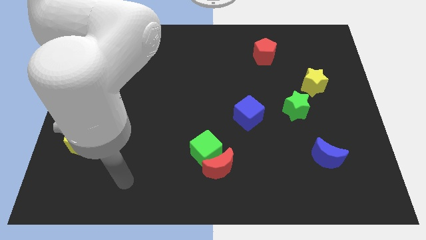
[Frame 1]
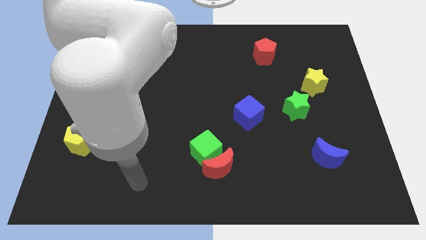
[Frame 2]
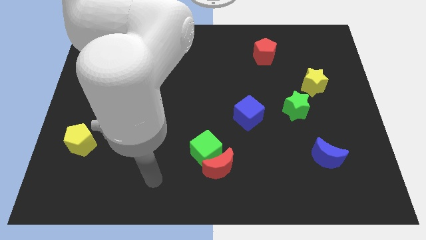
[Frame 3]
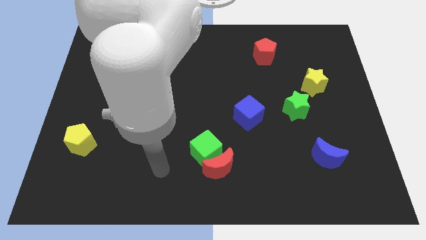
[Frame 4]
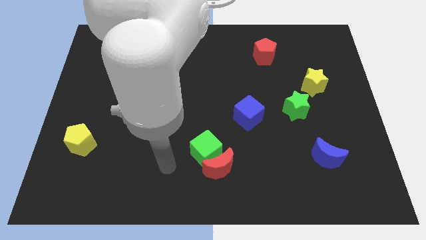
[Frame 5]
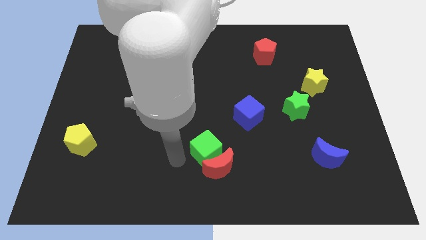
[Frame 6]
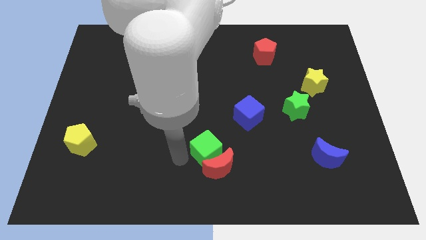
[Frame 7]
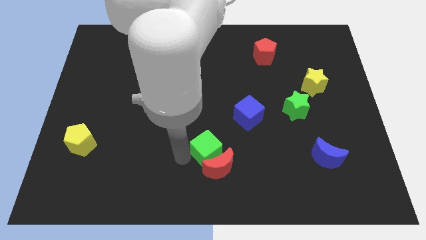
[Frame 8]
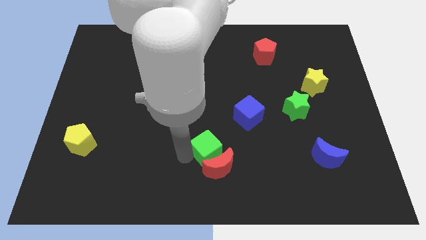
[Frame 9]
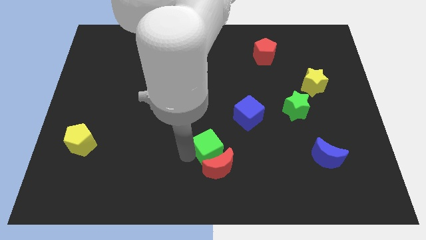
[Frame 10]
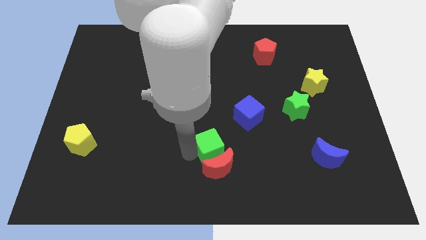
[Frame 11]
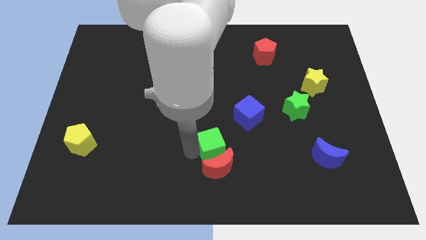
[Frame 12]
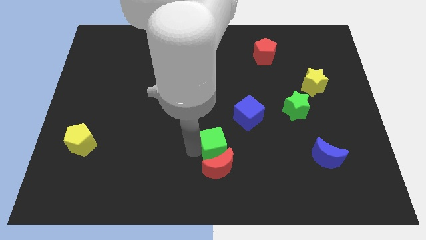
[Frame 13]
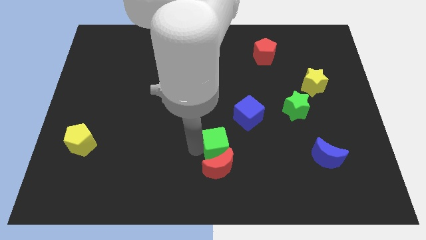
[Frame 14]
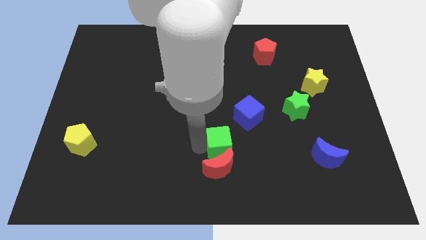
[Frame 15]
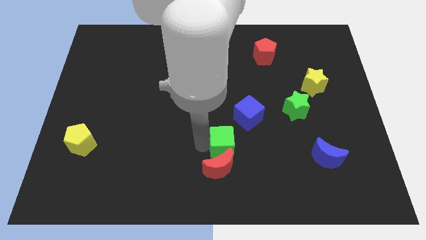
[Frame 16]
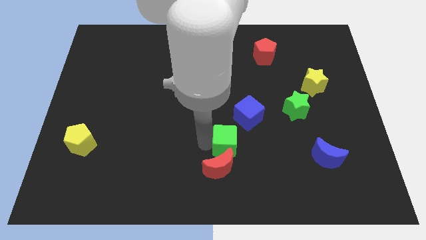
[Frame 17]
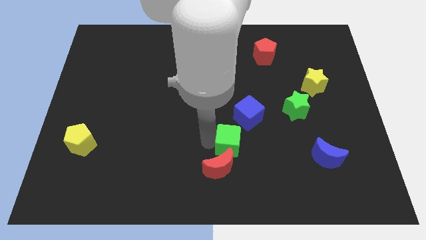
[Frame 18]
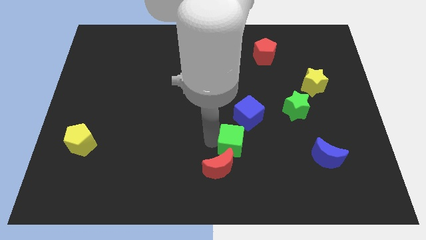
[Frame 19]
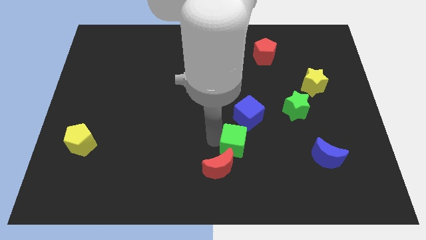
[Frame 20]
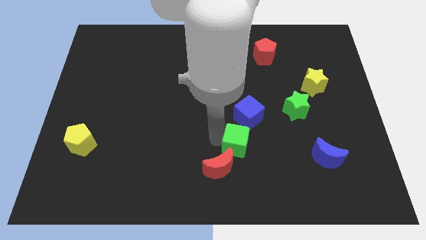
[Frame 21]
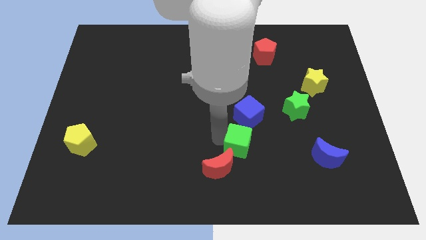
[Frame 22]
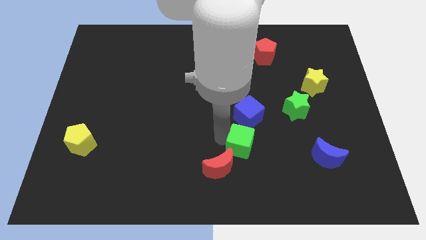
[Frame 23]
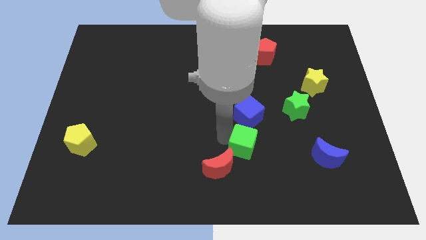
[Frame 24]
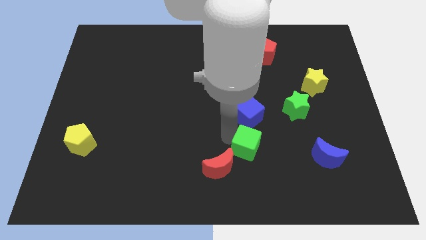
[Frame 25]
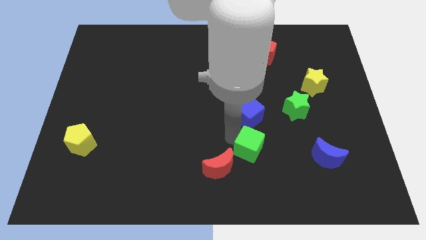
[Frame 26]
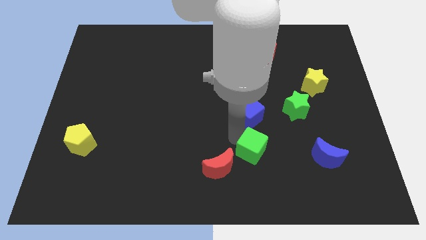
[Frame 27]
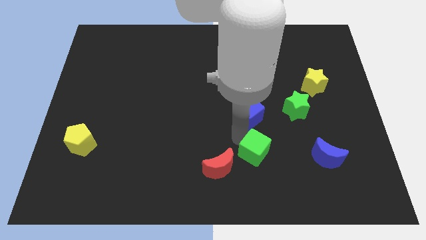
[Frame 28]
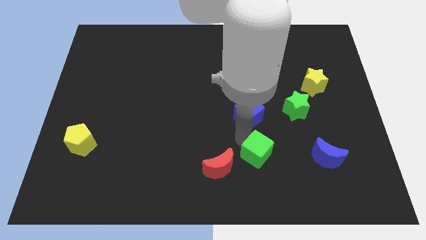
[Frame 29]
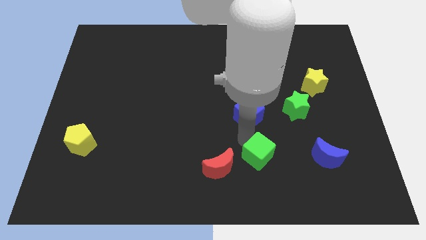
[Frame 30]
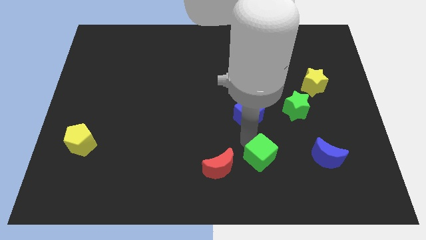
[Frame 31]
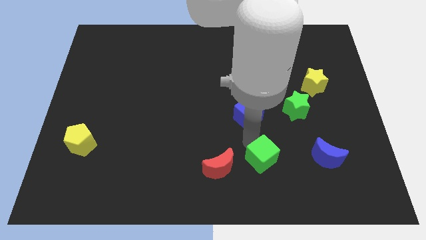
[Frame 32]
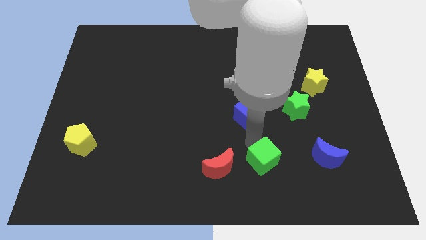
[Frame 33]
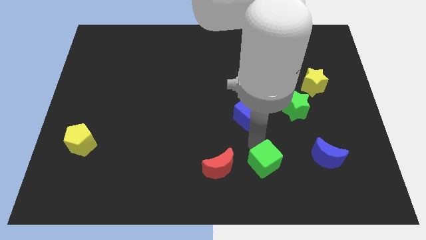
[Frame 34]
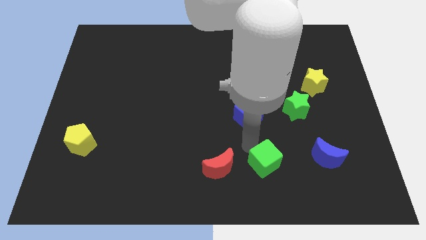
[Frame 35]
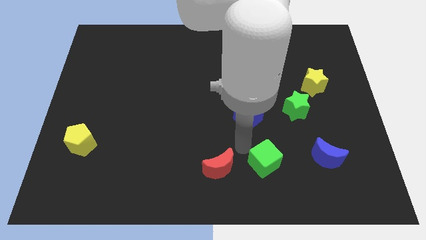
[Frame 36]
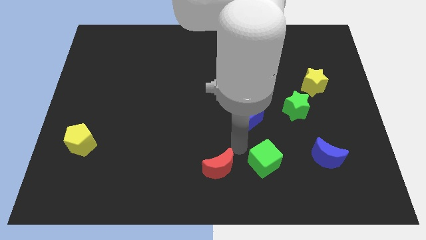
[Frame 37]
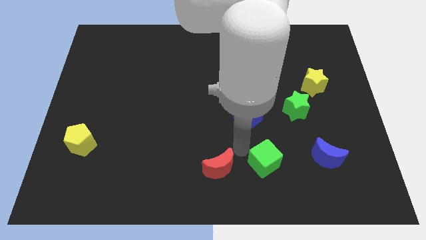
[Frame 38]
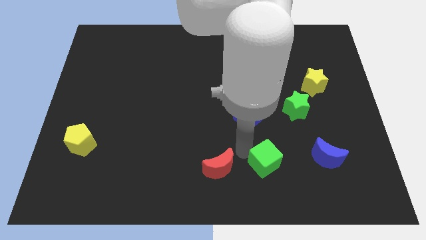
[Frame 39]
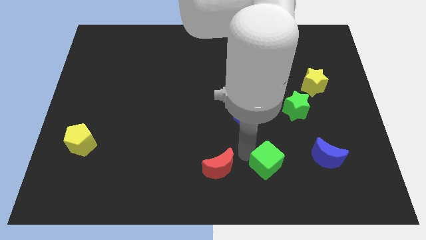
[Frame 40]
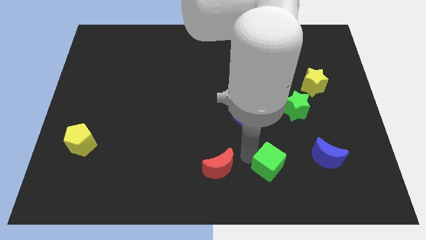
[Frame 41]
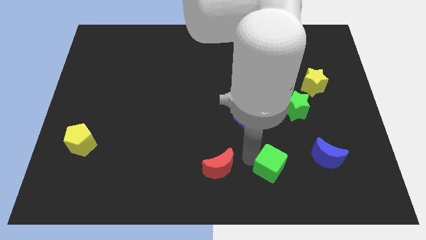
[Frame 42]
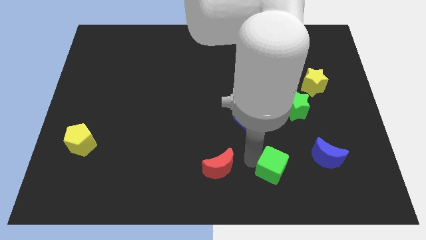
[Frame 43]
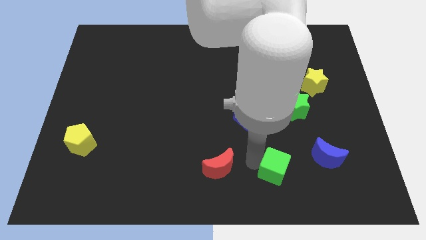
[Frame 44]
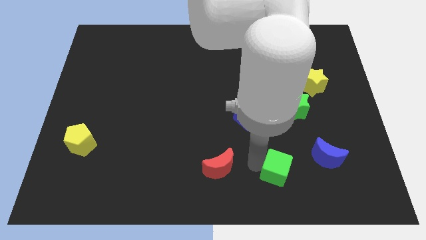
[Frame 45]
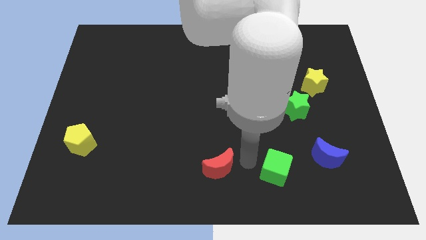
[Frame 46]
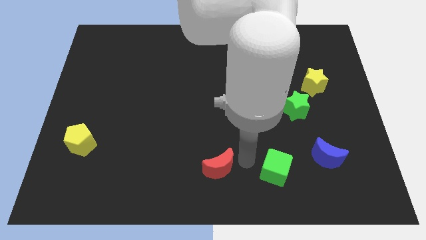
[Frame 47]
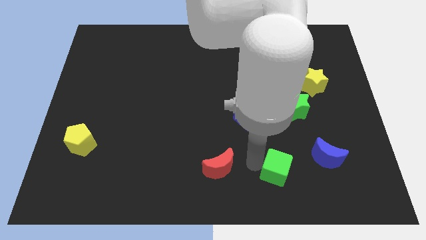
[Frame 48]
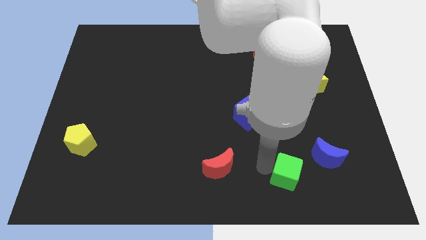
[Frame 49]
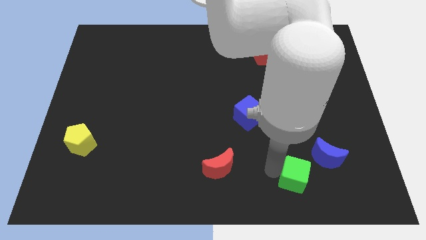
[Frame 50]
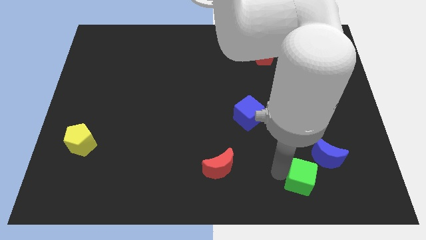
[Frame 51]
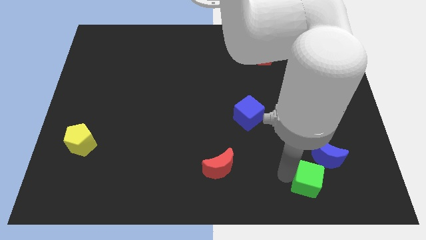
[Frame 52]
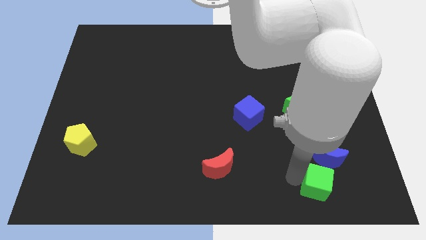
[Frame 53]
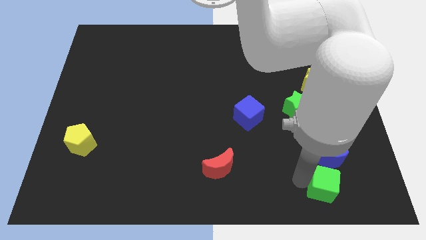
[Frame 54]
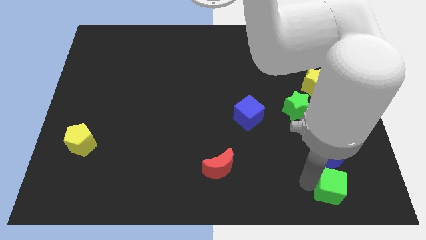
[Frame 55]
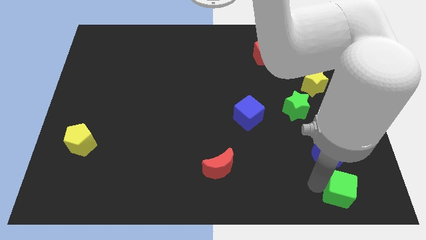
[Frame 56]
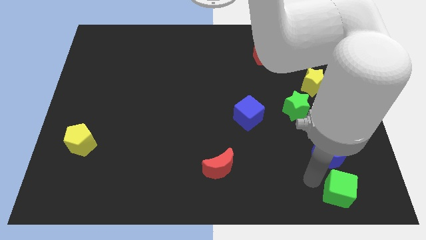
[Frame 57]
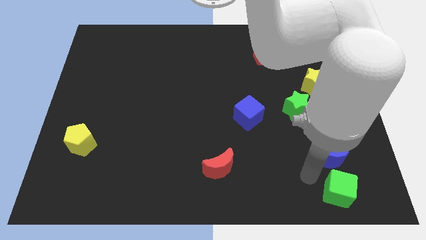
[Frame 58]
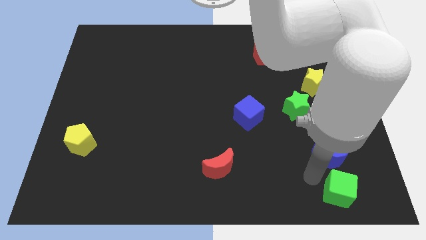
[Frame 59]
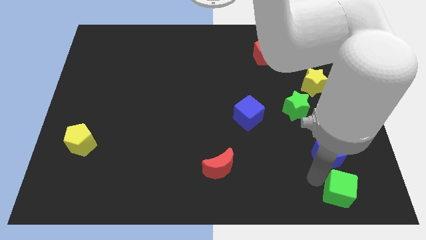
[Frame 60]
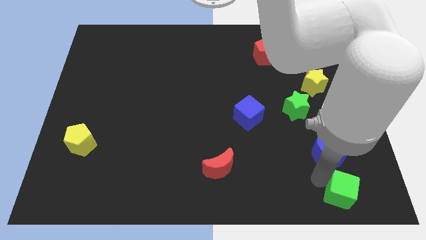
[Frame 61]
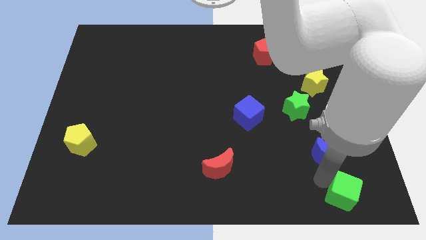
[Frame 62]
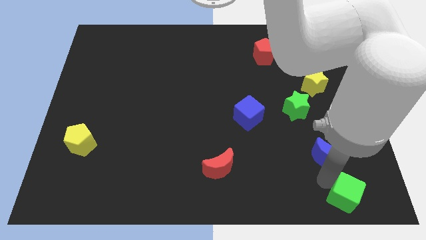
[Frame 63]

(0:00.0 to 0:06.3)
push the green cube to the bottom right of the board
